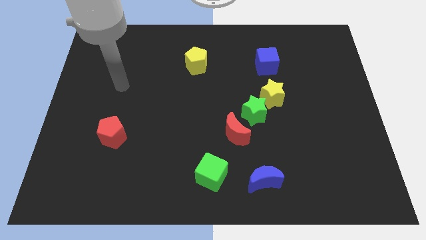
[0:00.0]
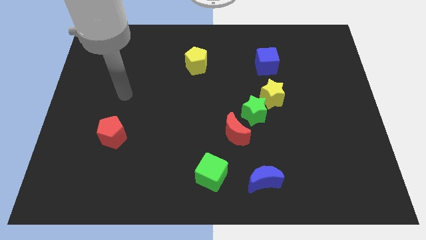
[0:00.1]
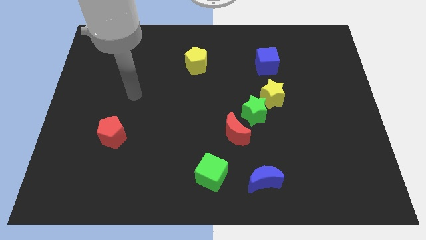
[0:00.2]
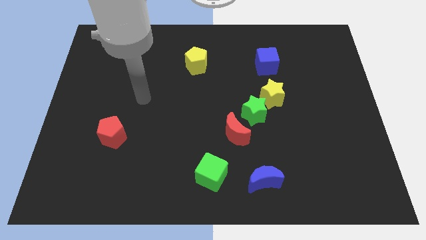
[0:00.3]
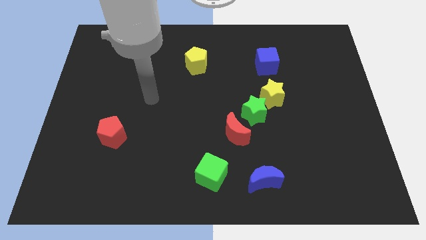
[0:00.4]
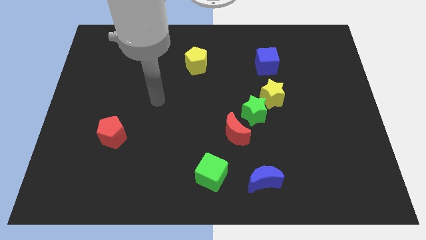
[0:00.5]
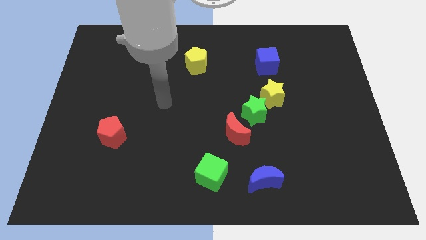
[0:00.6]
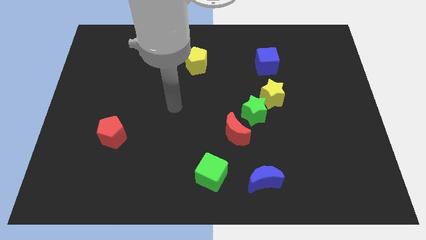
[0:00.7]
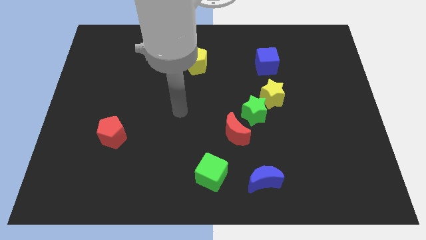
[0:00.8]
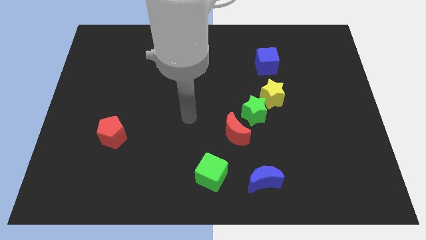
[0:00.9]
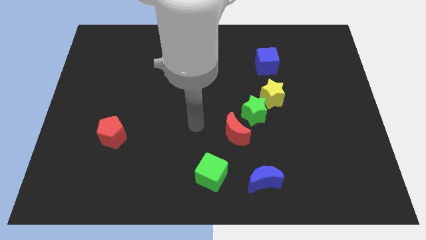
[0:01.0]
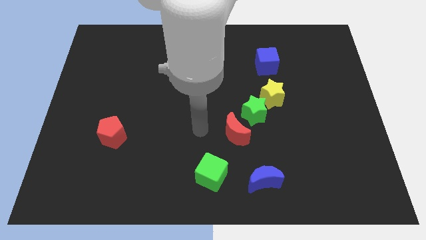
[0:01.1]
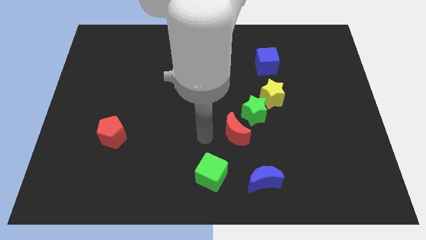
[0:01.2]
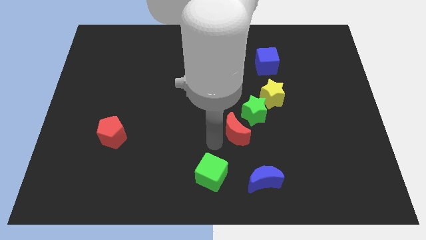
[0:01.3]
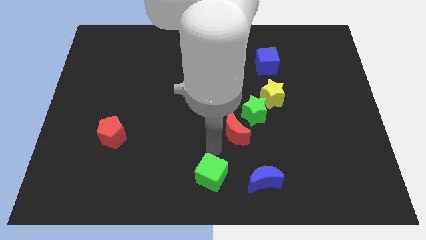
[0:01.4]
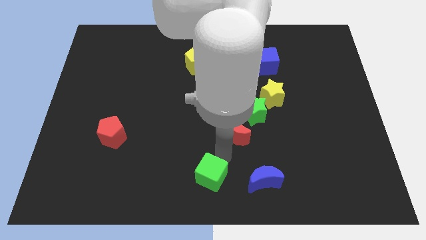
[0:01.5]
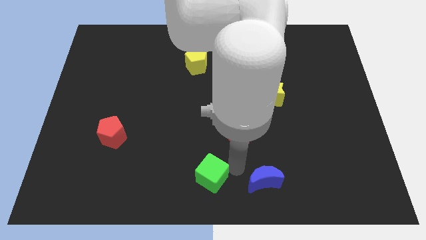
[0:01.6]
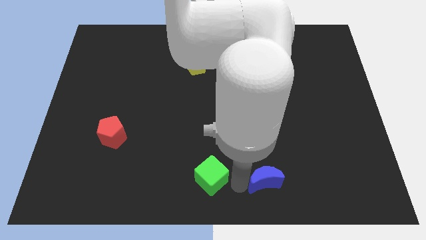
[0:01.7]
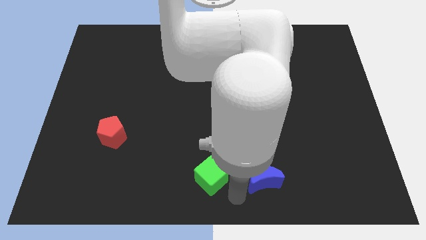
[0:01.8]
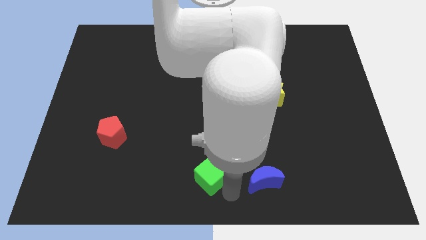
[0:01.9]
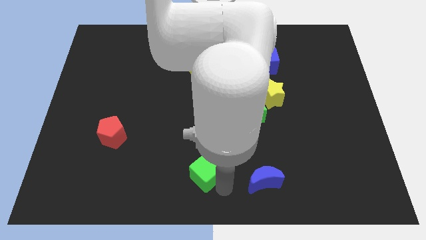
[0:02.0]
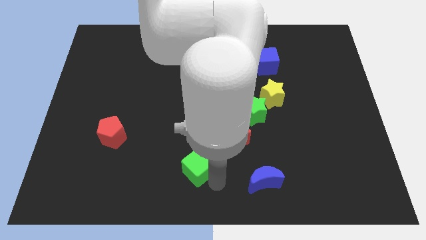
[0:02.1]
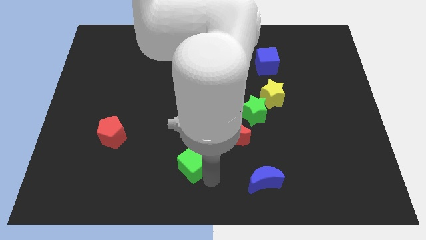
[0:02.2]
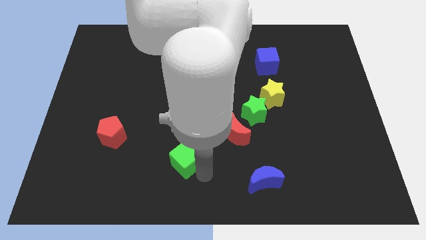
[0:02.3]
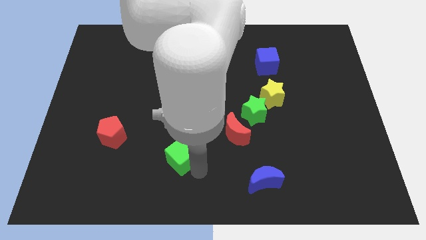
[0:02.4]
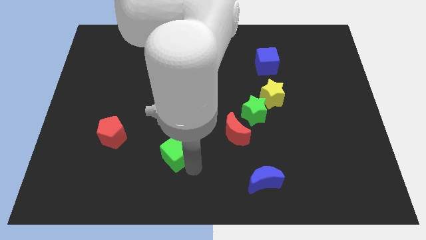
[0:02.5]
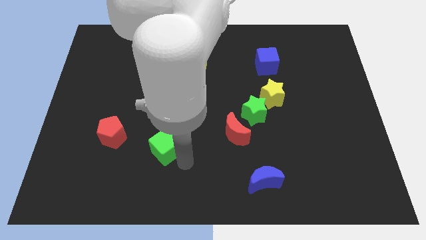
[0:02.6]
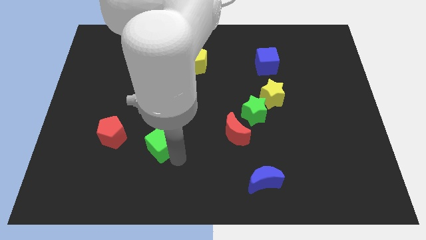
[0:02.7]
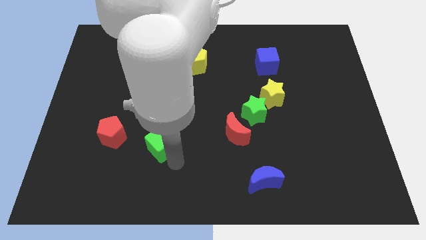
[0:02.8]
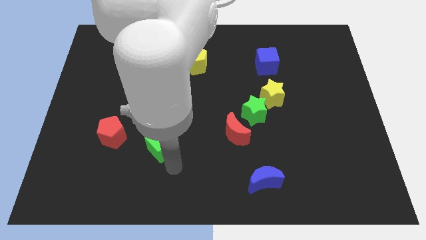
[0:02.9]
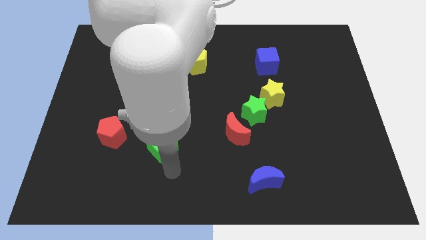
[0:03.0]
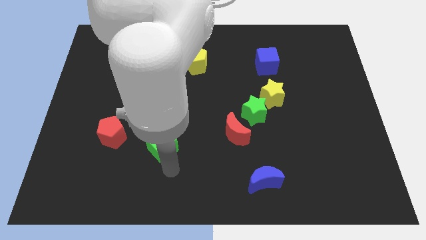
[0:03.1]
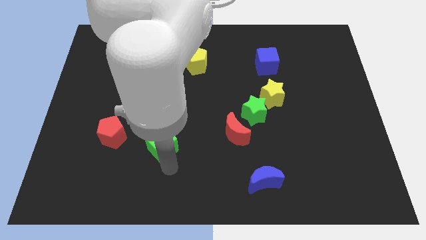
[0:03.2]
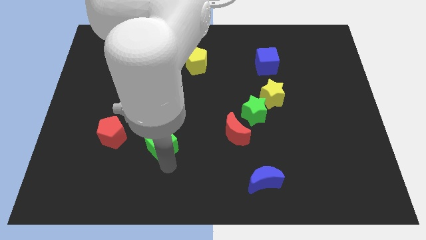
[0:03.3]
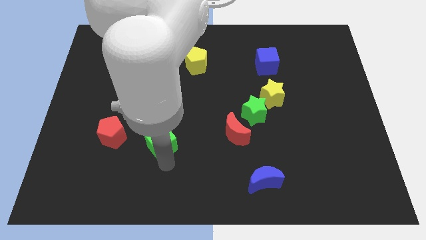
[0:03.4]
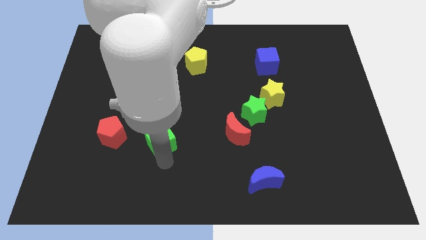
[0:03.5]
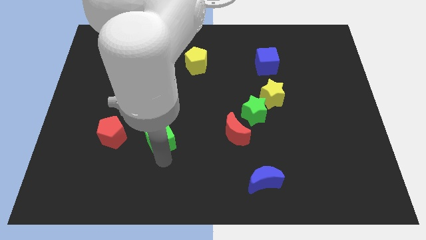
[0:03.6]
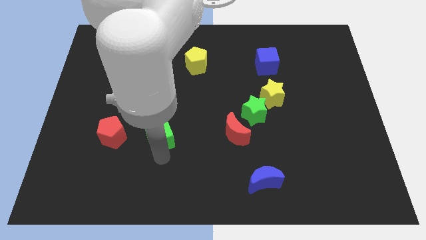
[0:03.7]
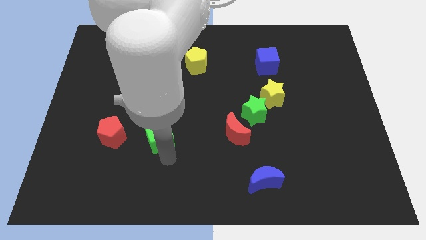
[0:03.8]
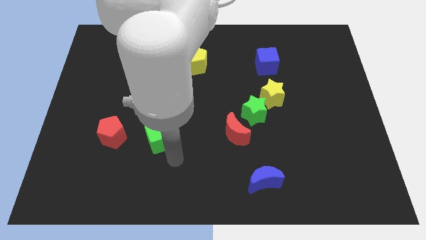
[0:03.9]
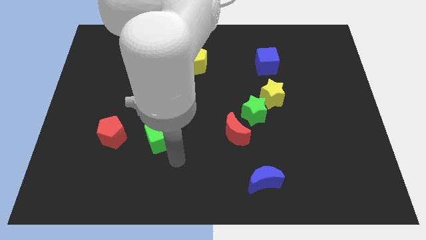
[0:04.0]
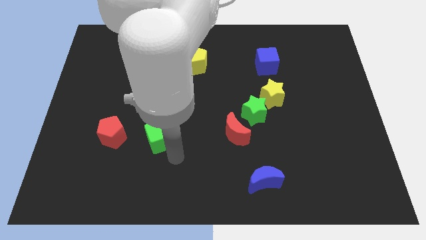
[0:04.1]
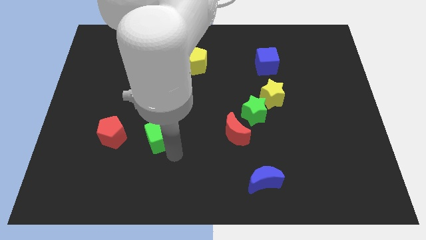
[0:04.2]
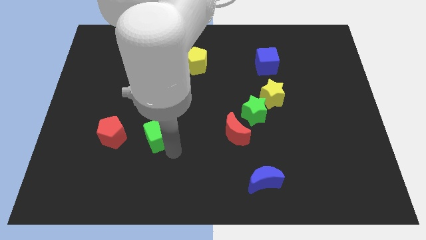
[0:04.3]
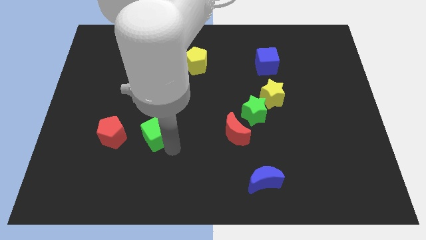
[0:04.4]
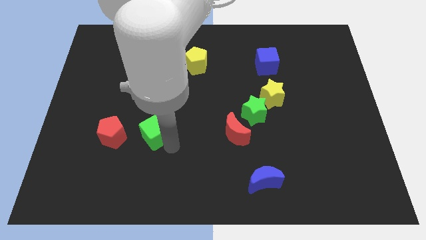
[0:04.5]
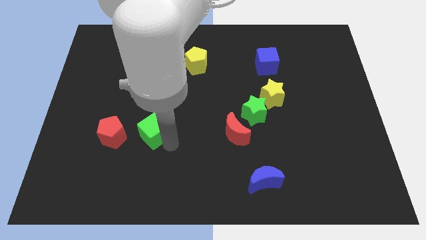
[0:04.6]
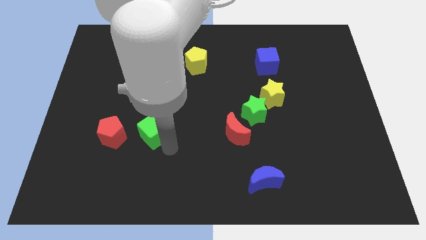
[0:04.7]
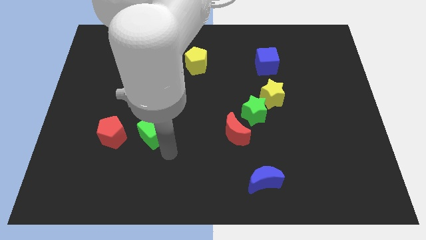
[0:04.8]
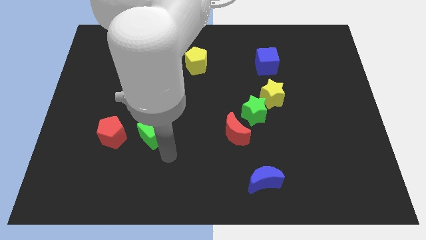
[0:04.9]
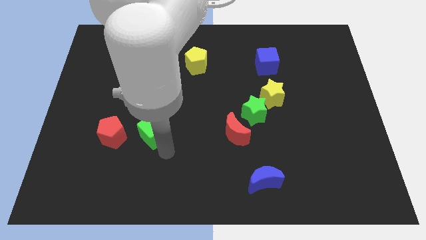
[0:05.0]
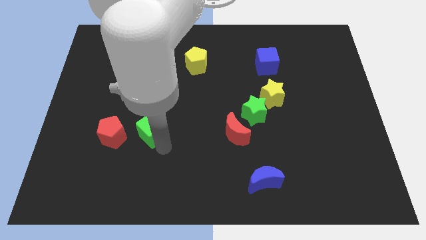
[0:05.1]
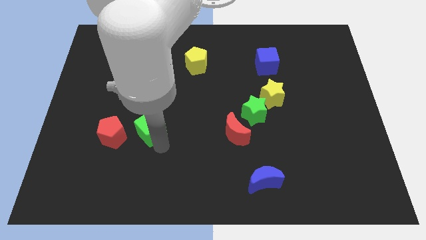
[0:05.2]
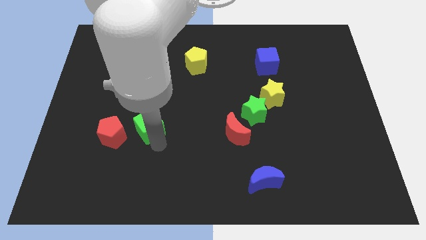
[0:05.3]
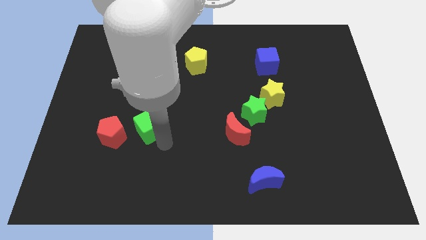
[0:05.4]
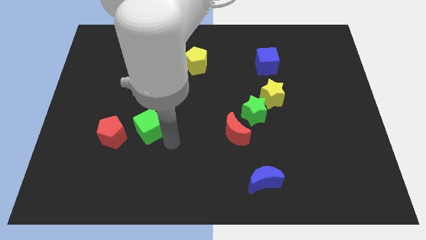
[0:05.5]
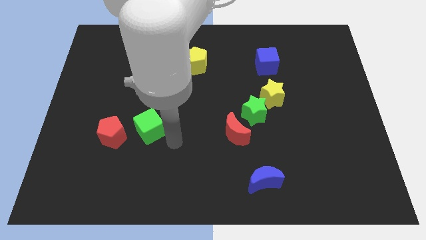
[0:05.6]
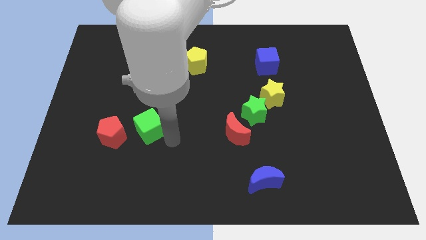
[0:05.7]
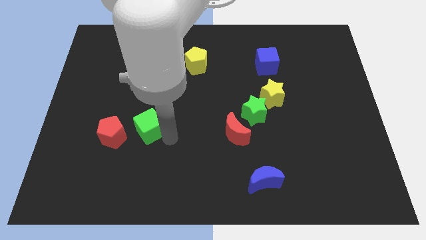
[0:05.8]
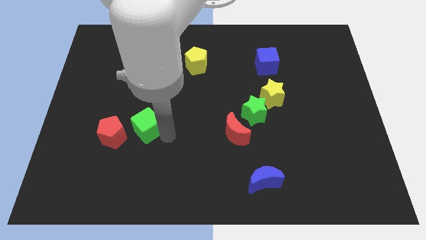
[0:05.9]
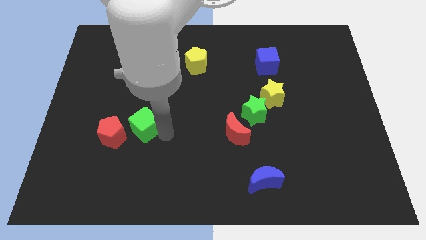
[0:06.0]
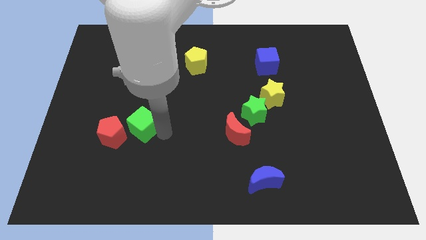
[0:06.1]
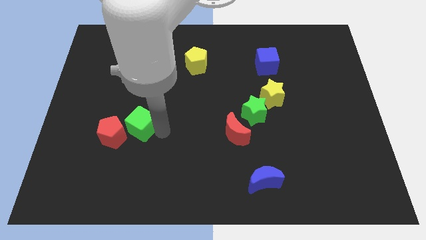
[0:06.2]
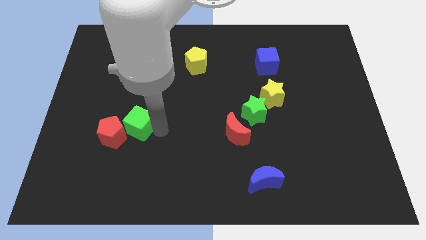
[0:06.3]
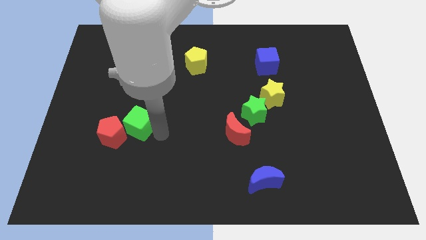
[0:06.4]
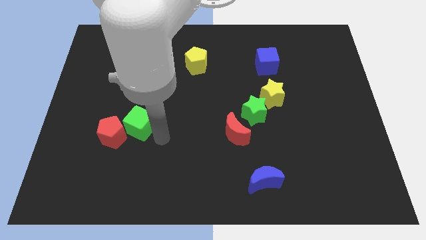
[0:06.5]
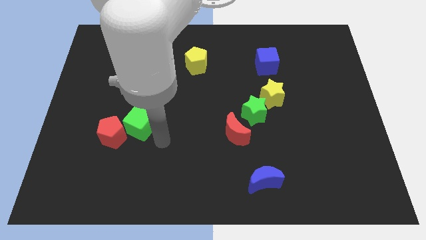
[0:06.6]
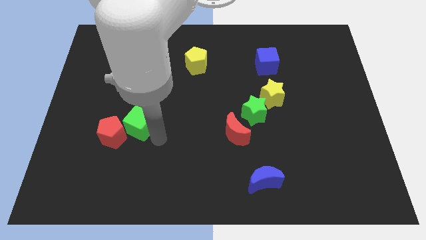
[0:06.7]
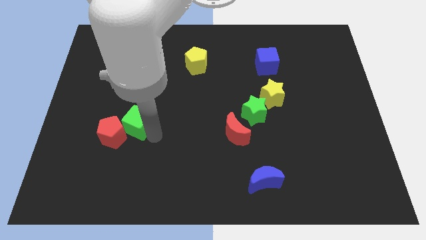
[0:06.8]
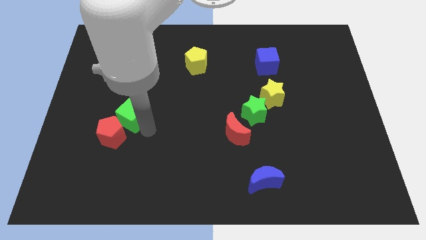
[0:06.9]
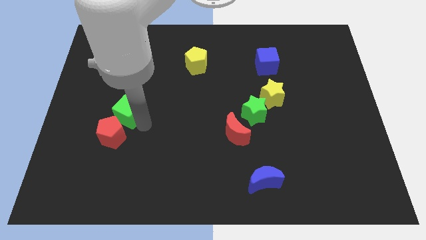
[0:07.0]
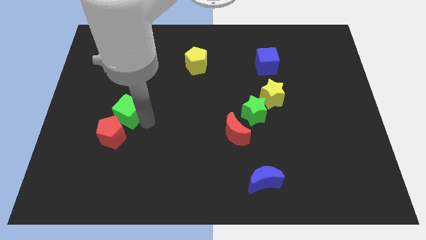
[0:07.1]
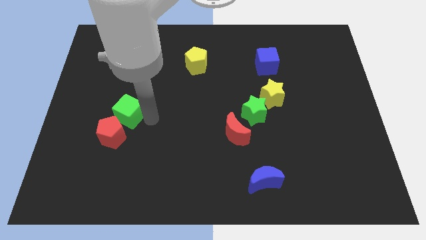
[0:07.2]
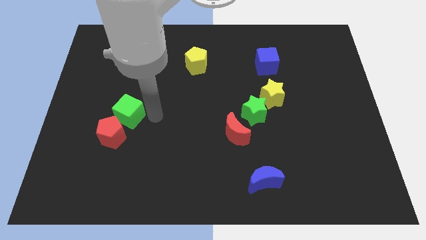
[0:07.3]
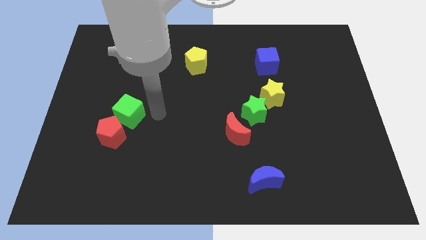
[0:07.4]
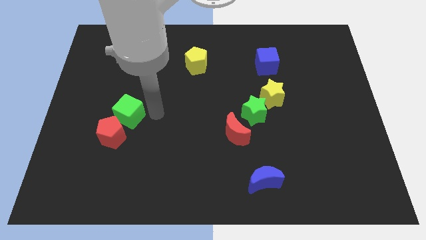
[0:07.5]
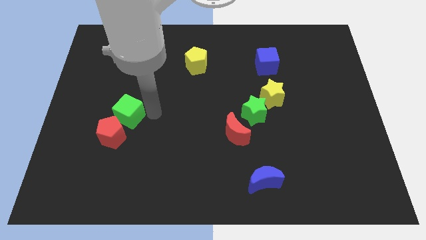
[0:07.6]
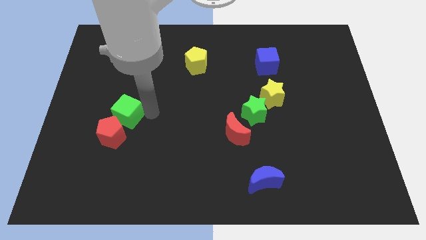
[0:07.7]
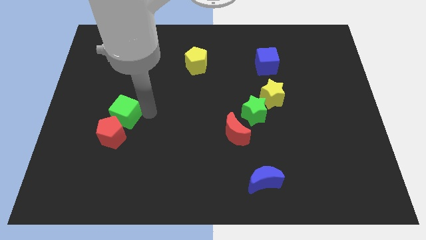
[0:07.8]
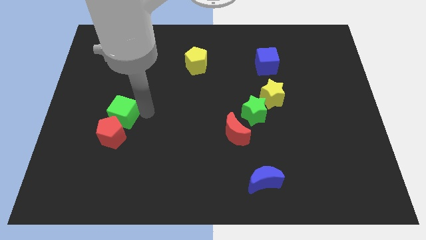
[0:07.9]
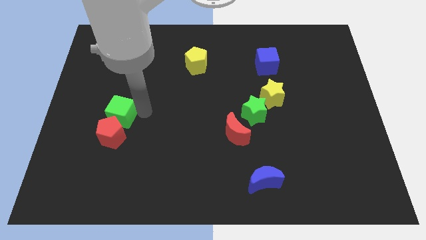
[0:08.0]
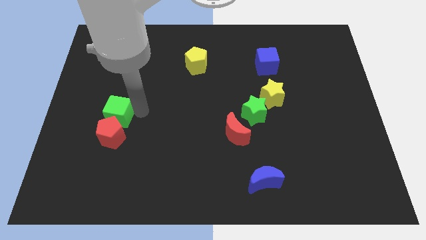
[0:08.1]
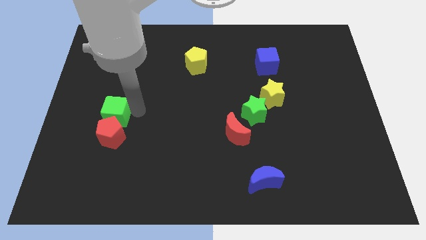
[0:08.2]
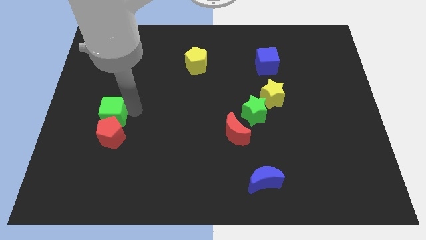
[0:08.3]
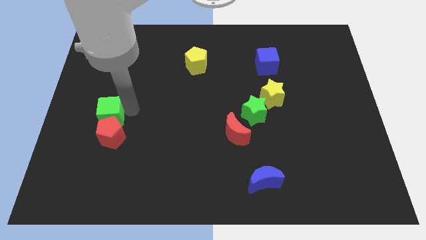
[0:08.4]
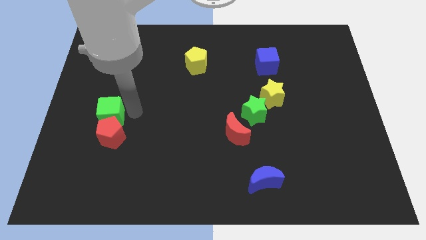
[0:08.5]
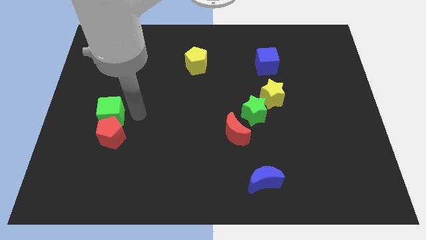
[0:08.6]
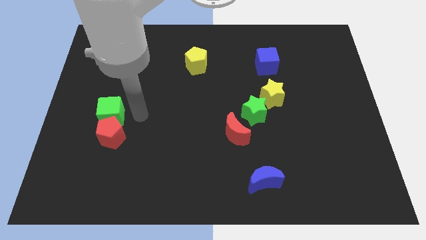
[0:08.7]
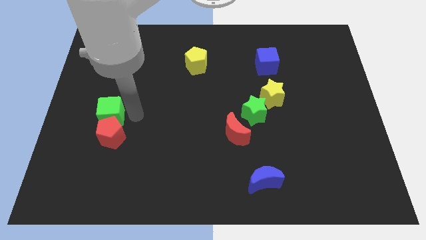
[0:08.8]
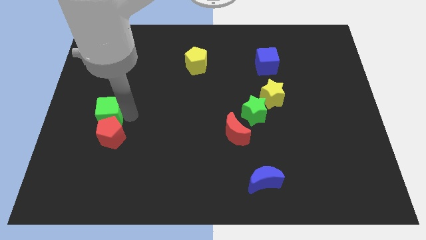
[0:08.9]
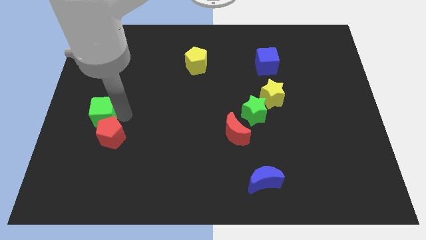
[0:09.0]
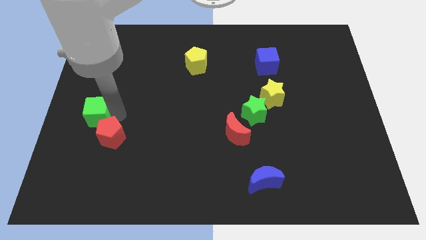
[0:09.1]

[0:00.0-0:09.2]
slide the green cube to the center left
